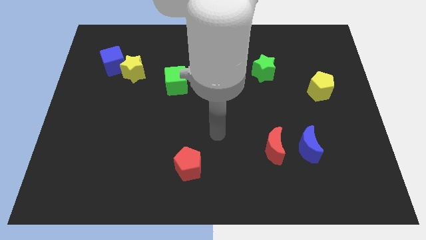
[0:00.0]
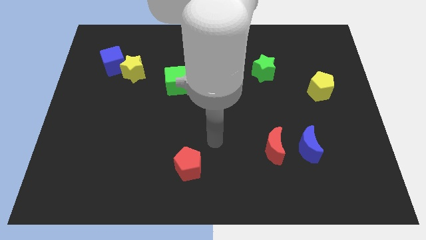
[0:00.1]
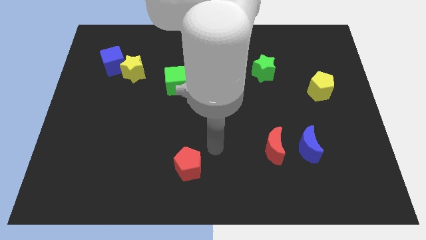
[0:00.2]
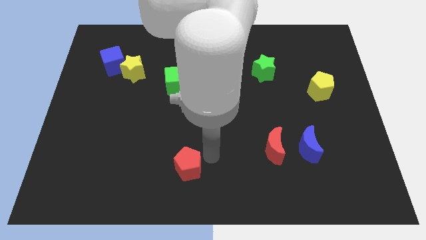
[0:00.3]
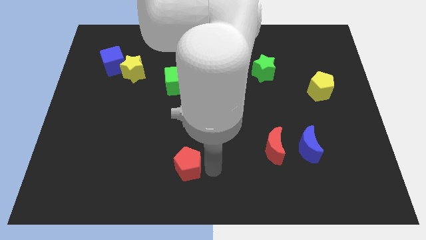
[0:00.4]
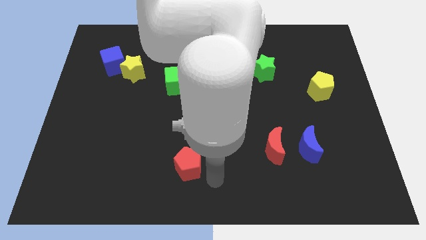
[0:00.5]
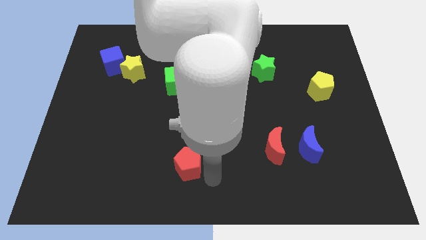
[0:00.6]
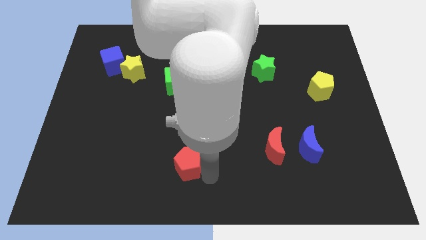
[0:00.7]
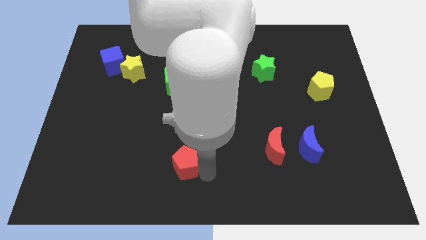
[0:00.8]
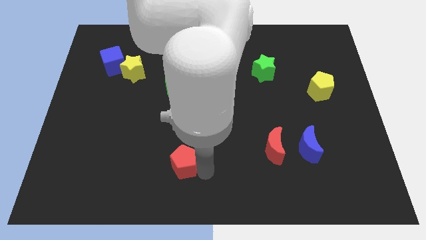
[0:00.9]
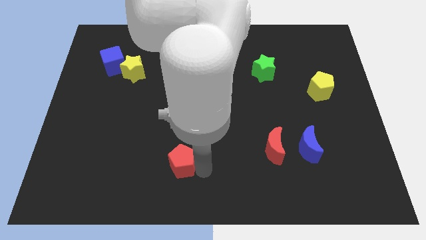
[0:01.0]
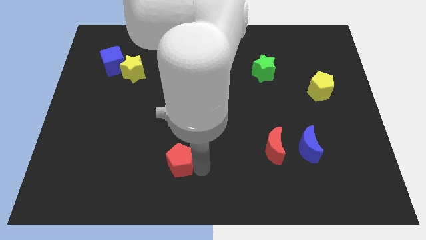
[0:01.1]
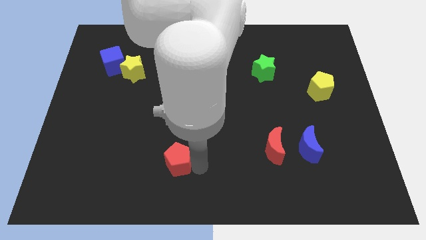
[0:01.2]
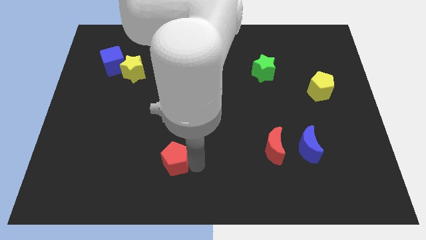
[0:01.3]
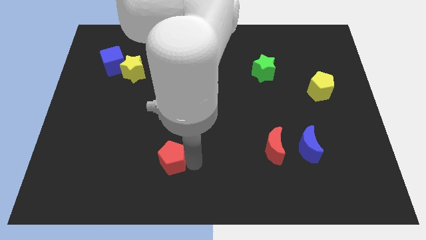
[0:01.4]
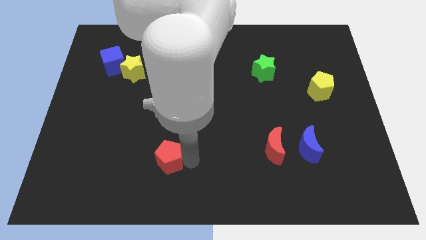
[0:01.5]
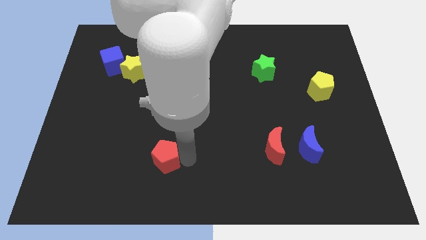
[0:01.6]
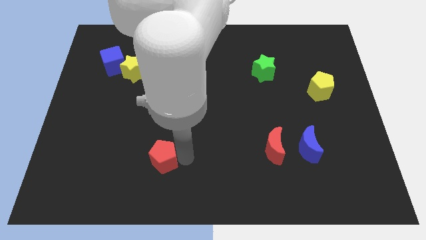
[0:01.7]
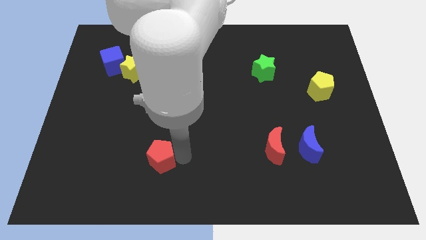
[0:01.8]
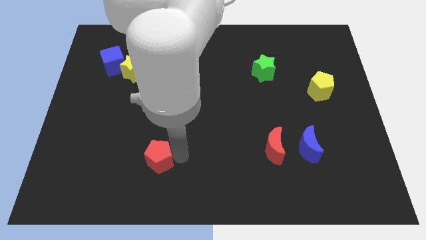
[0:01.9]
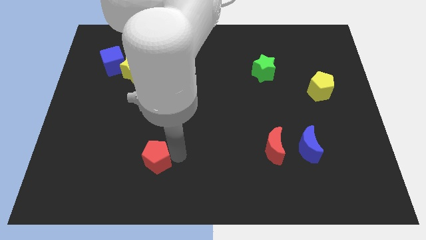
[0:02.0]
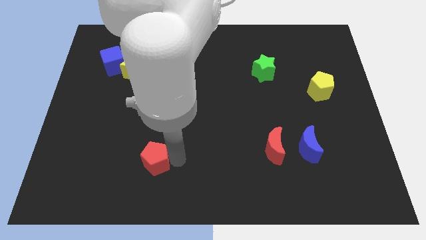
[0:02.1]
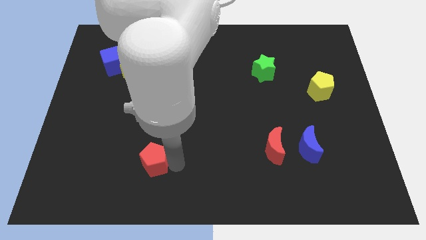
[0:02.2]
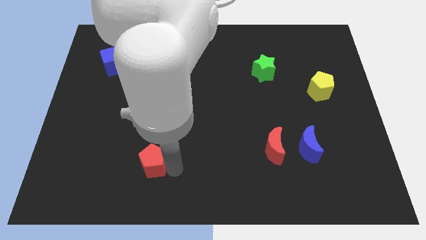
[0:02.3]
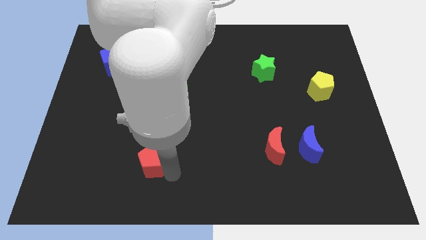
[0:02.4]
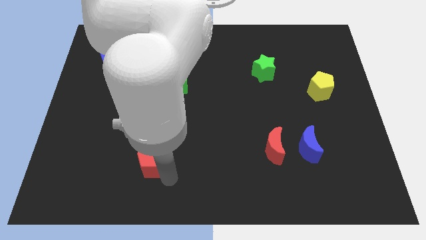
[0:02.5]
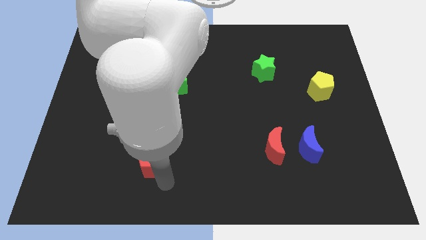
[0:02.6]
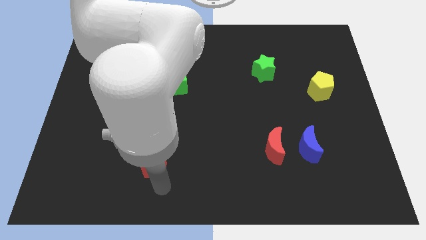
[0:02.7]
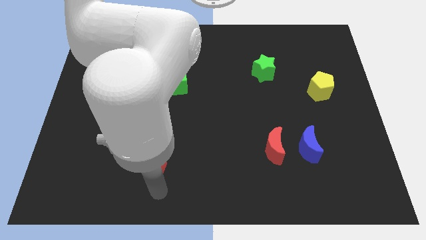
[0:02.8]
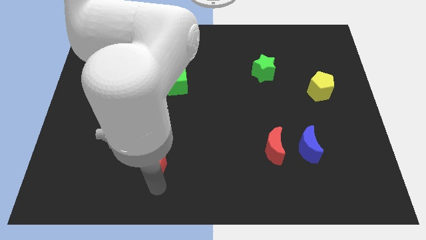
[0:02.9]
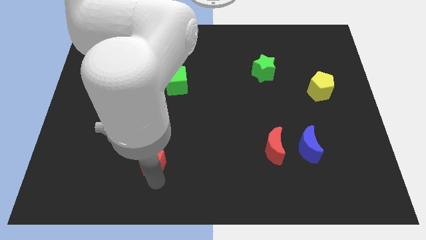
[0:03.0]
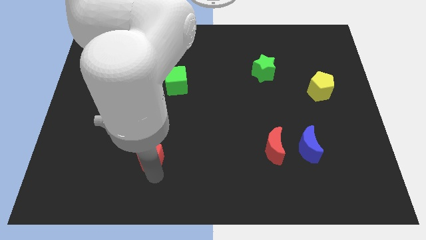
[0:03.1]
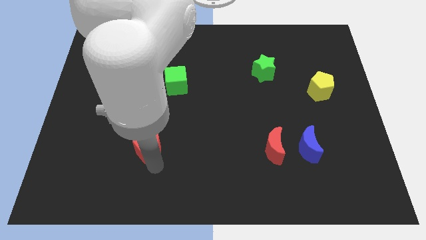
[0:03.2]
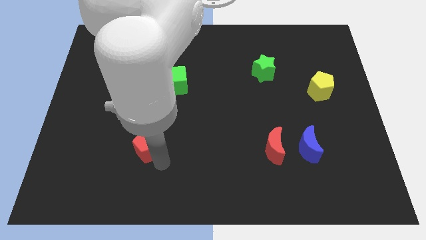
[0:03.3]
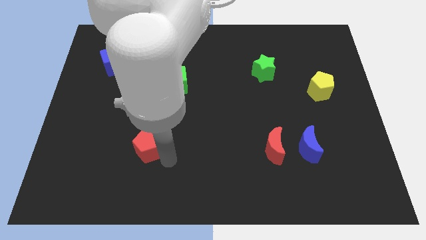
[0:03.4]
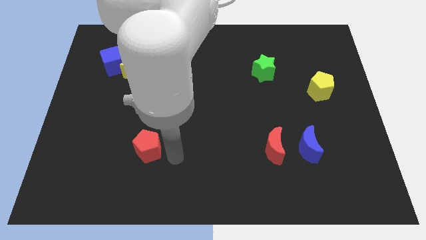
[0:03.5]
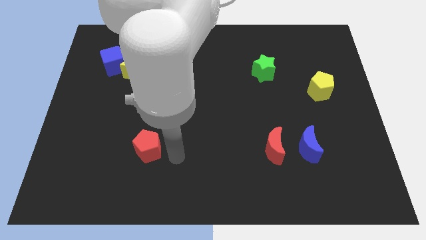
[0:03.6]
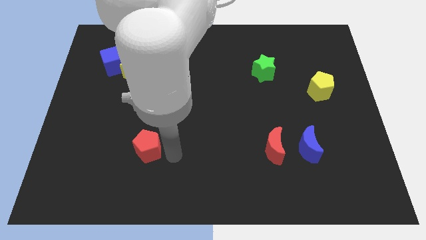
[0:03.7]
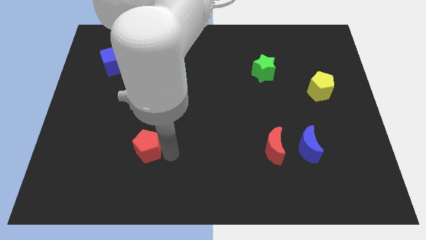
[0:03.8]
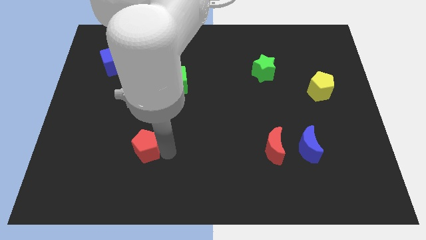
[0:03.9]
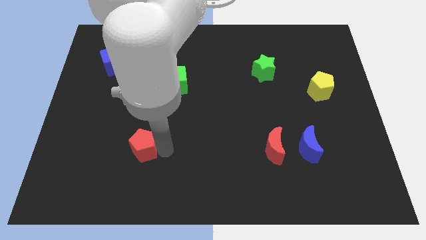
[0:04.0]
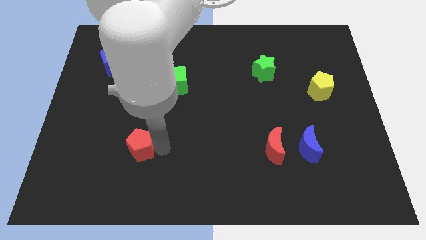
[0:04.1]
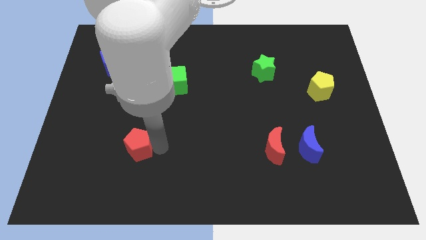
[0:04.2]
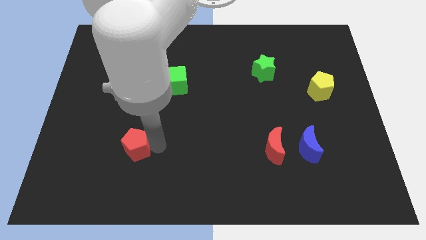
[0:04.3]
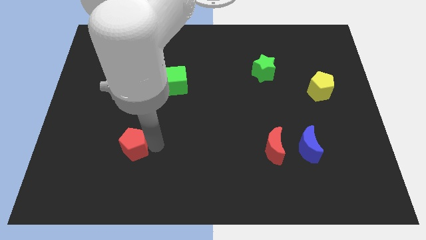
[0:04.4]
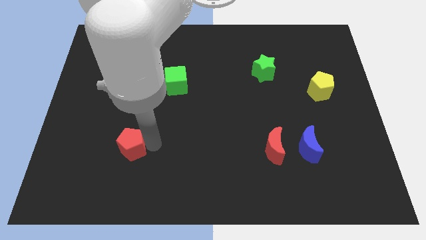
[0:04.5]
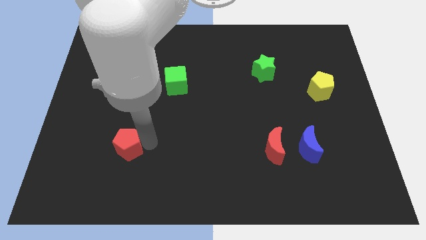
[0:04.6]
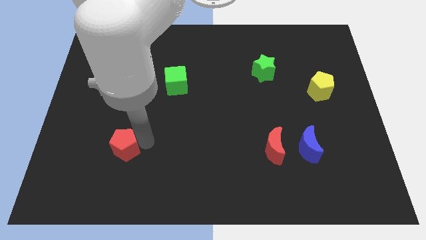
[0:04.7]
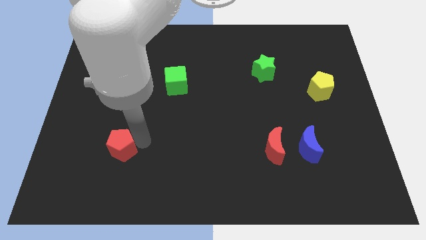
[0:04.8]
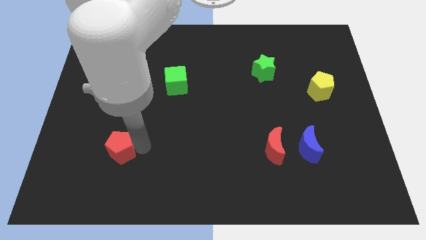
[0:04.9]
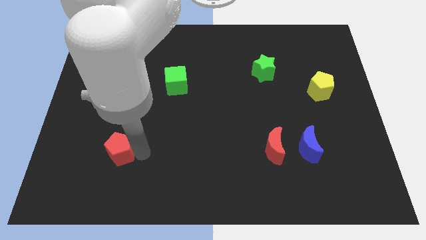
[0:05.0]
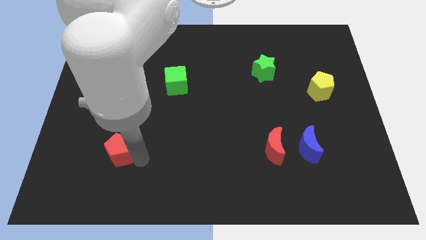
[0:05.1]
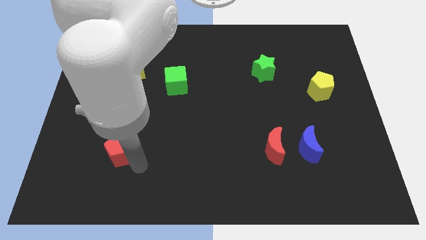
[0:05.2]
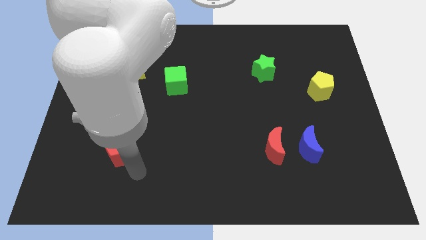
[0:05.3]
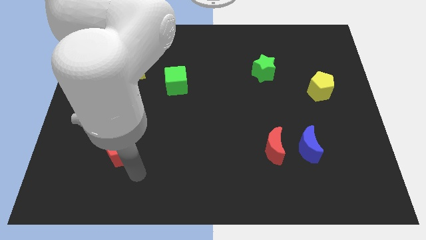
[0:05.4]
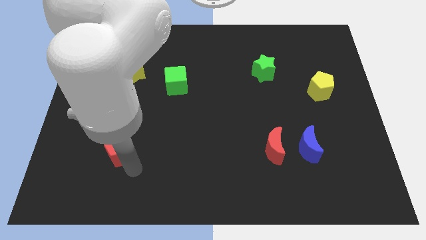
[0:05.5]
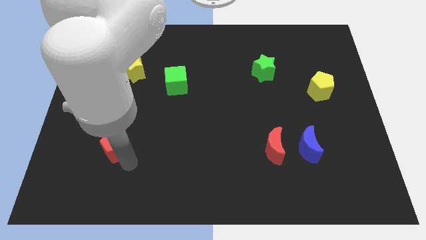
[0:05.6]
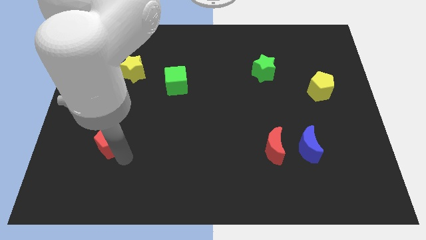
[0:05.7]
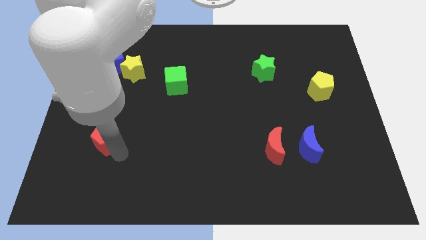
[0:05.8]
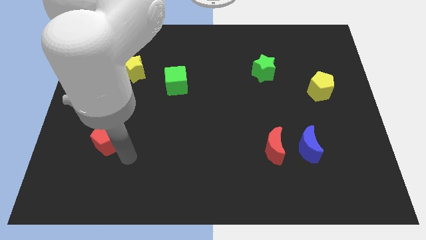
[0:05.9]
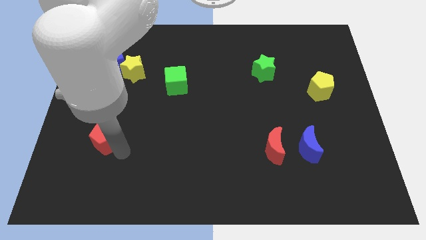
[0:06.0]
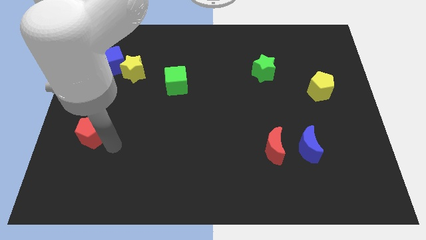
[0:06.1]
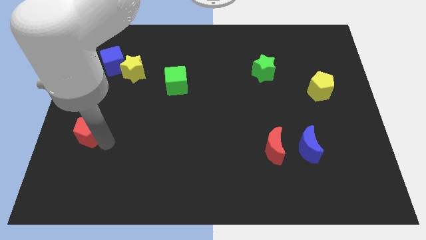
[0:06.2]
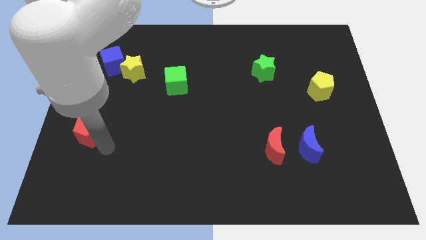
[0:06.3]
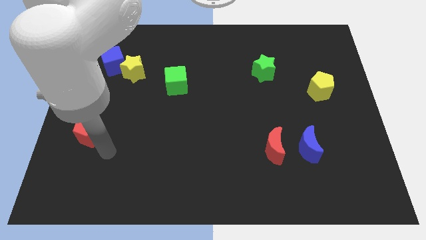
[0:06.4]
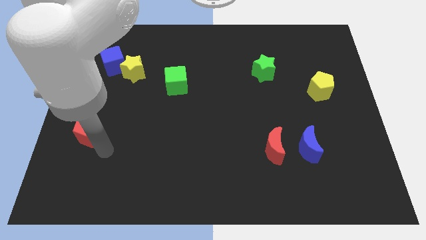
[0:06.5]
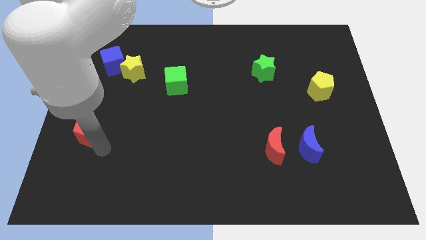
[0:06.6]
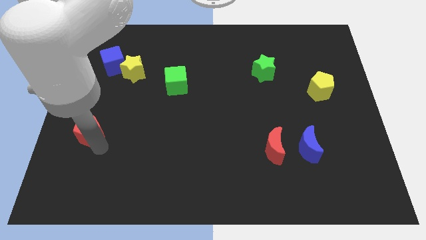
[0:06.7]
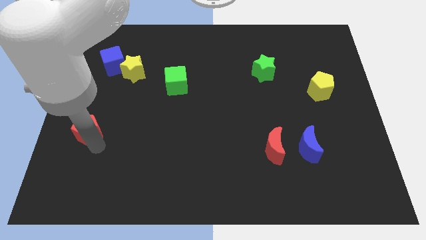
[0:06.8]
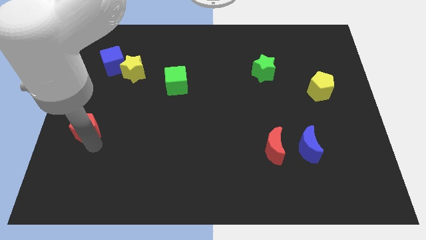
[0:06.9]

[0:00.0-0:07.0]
put the red pentagon to the left side of the board
